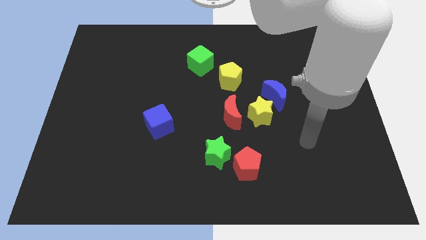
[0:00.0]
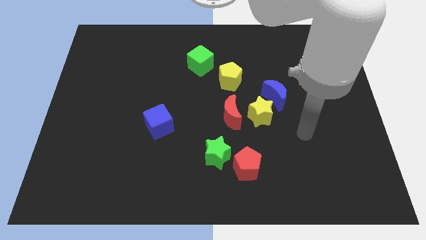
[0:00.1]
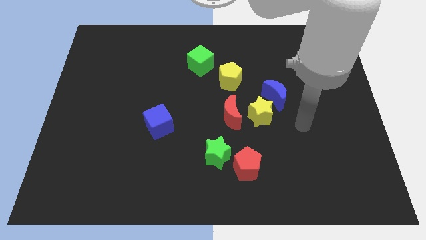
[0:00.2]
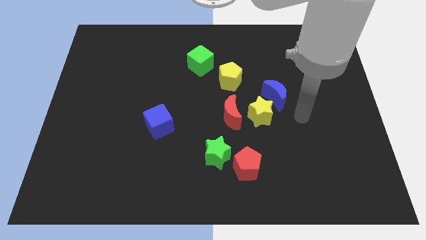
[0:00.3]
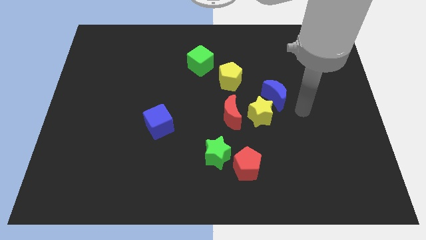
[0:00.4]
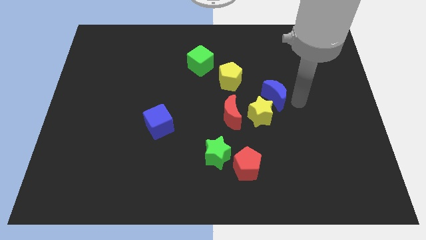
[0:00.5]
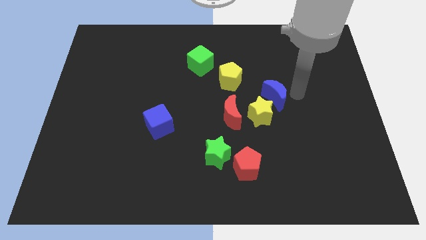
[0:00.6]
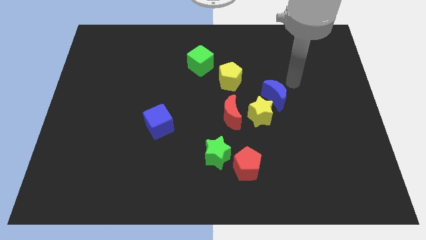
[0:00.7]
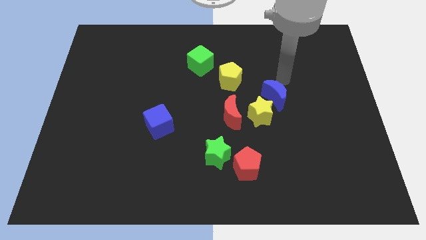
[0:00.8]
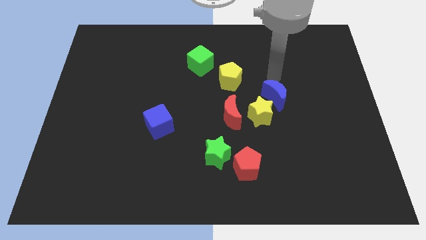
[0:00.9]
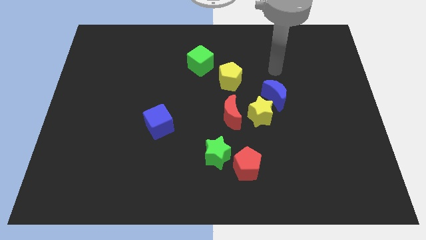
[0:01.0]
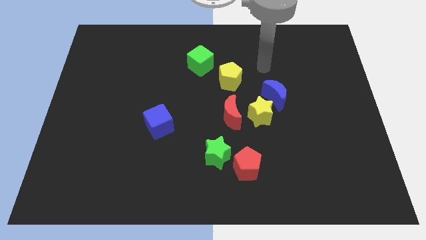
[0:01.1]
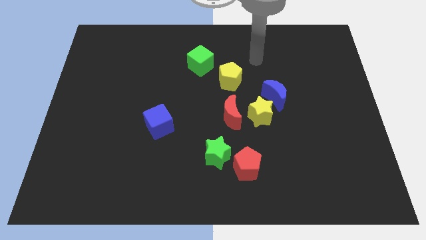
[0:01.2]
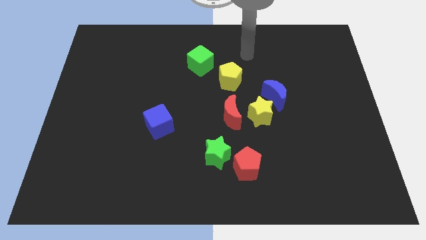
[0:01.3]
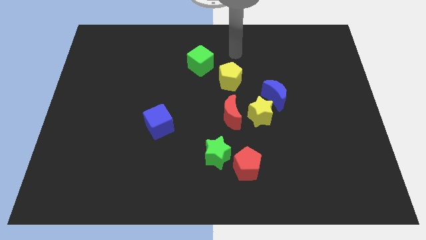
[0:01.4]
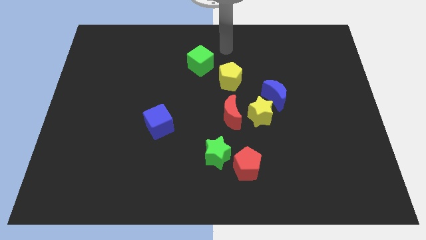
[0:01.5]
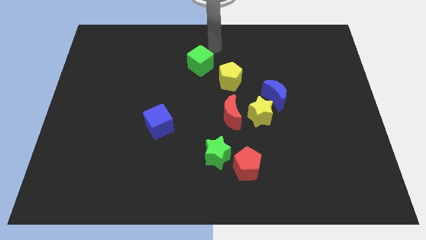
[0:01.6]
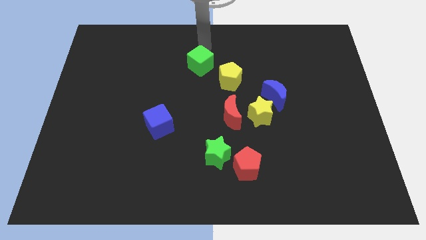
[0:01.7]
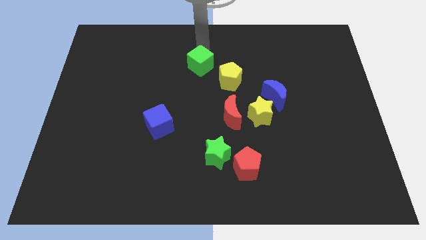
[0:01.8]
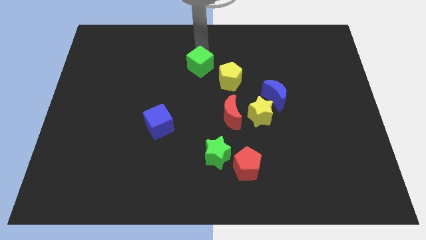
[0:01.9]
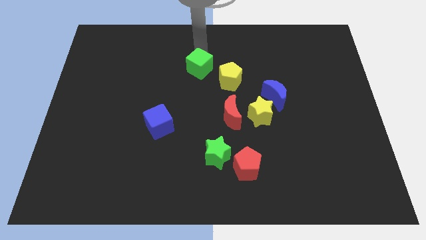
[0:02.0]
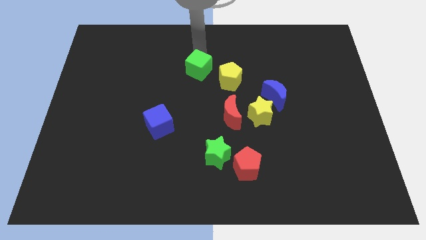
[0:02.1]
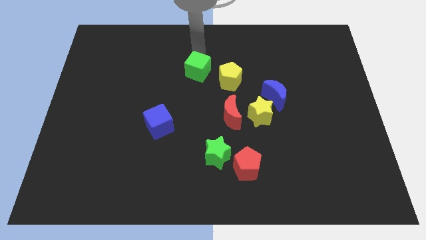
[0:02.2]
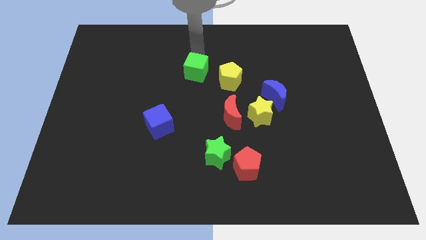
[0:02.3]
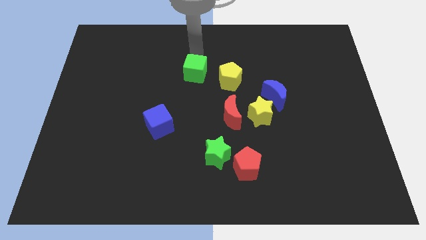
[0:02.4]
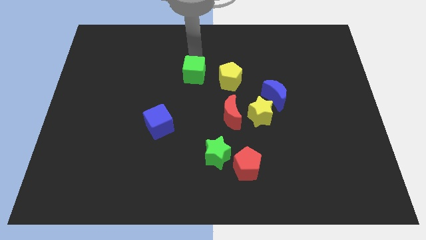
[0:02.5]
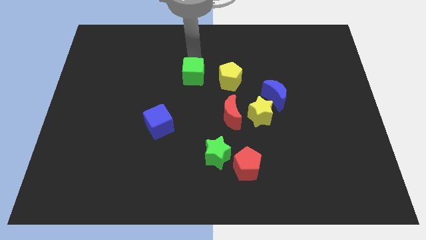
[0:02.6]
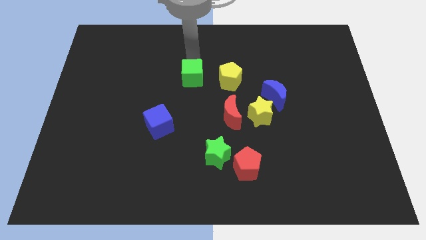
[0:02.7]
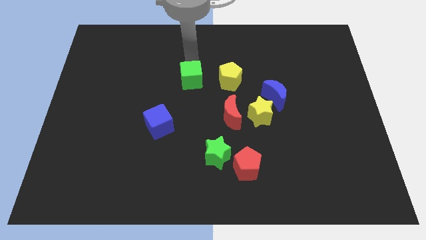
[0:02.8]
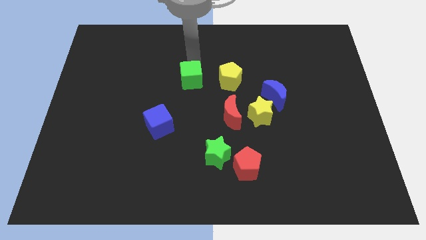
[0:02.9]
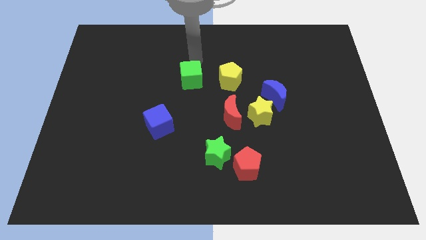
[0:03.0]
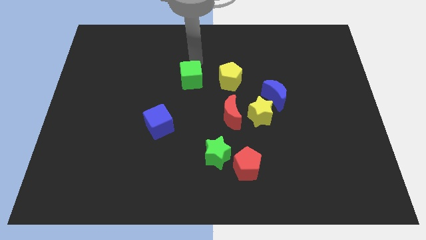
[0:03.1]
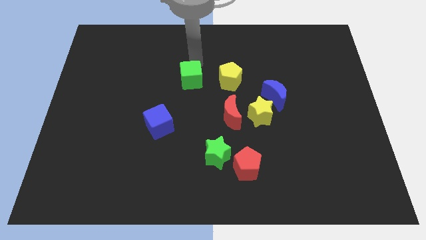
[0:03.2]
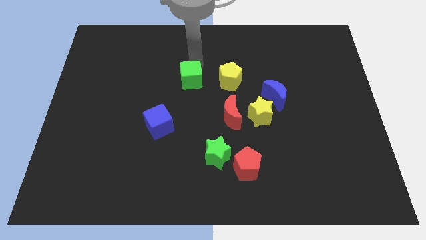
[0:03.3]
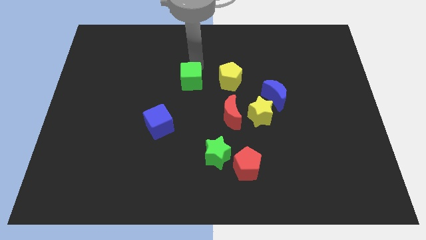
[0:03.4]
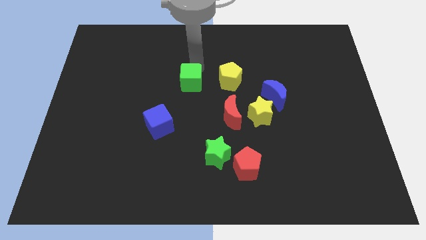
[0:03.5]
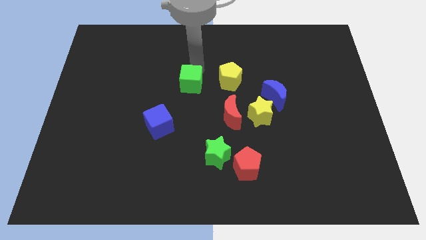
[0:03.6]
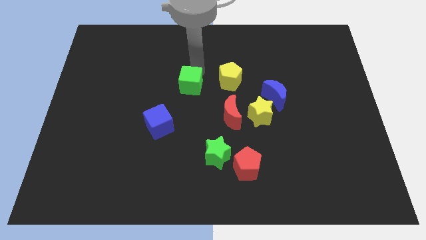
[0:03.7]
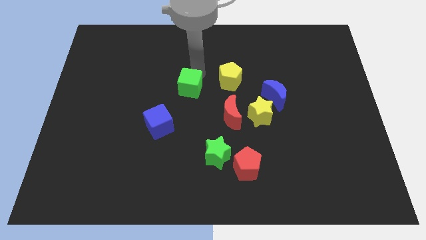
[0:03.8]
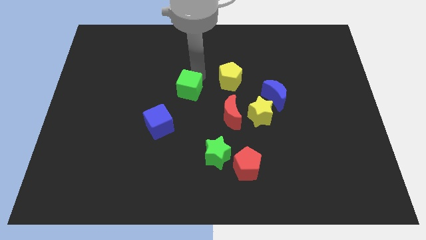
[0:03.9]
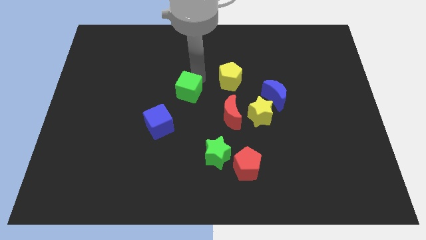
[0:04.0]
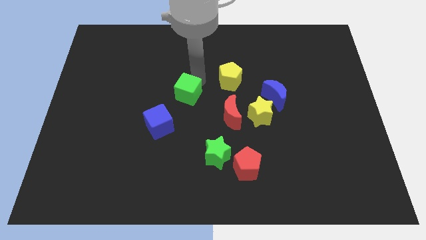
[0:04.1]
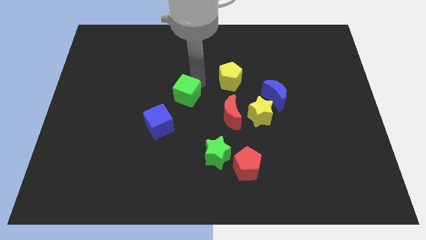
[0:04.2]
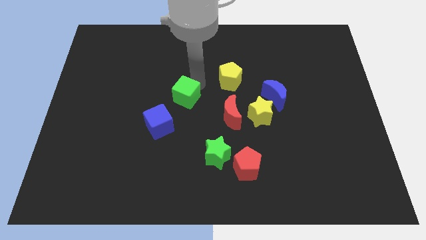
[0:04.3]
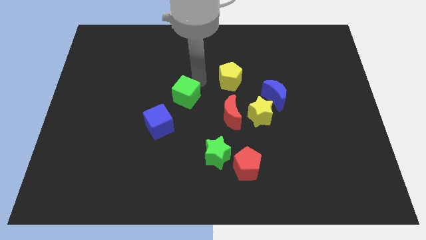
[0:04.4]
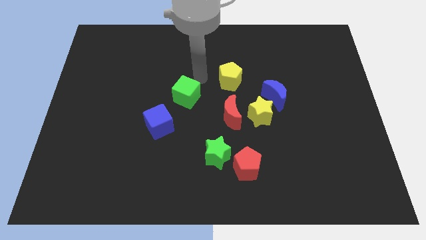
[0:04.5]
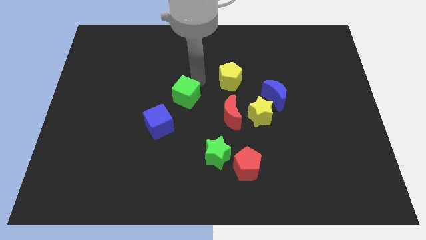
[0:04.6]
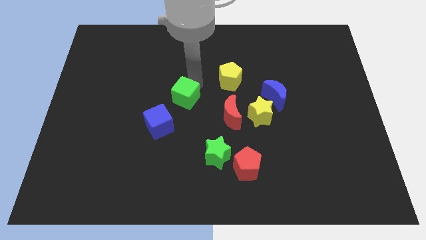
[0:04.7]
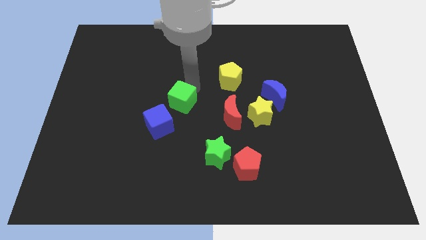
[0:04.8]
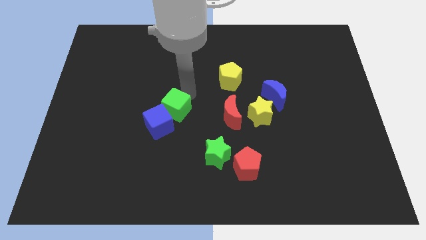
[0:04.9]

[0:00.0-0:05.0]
move the green cube close to the blue cube

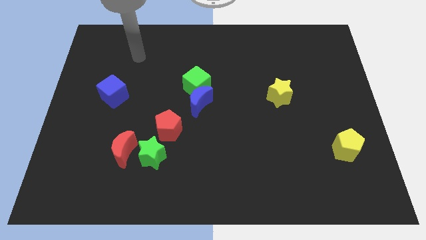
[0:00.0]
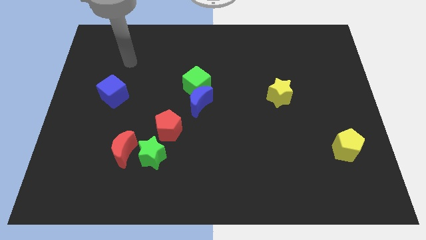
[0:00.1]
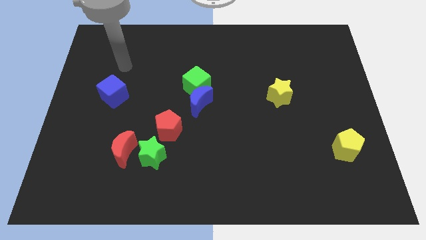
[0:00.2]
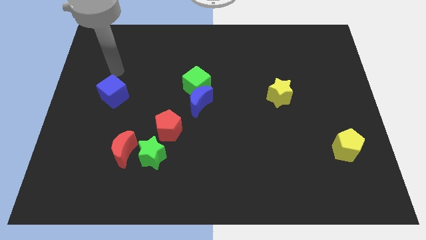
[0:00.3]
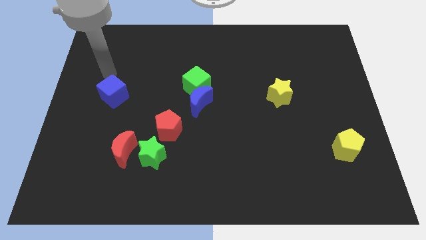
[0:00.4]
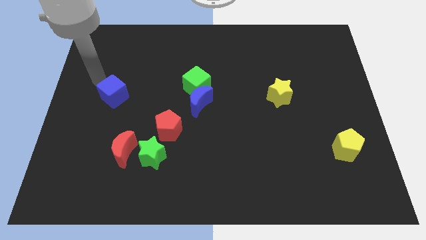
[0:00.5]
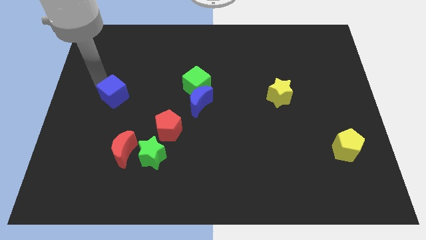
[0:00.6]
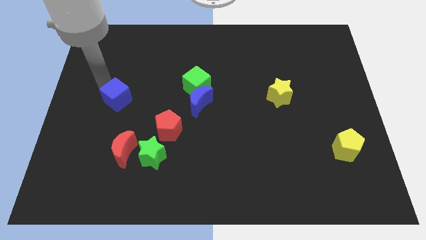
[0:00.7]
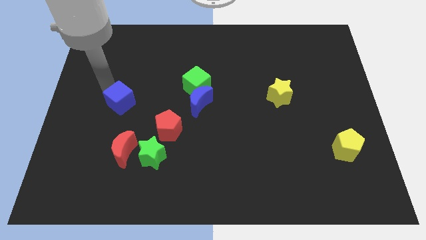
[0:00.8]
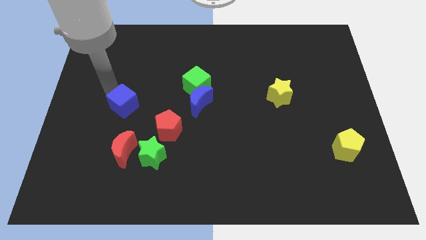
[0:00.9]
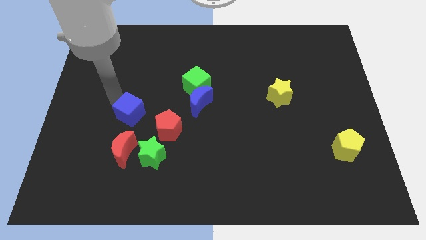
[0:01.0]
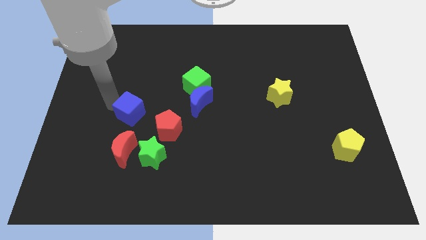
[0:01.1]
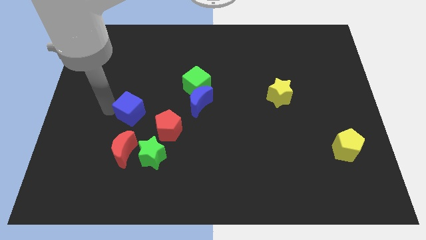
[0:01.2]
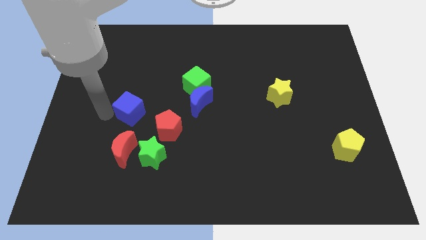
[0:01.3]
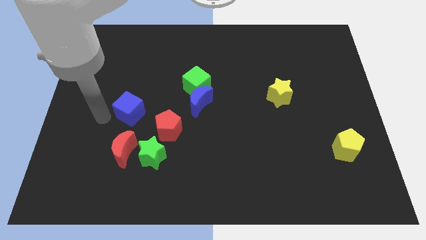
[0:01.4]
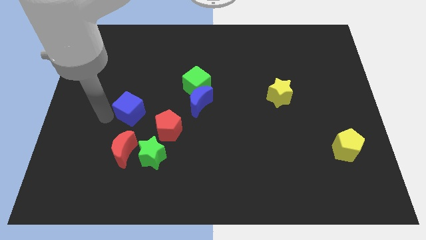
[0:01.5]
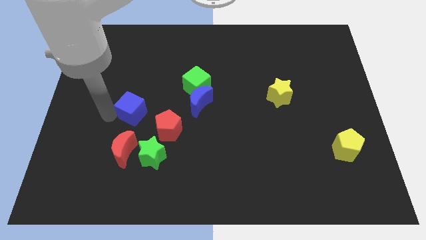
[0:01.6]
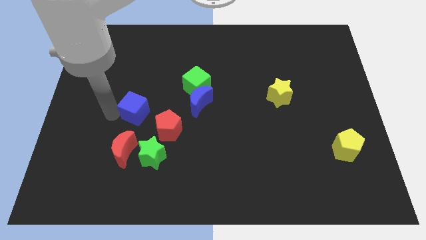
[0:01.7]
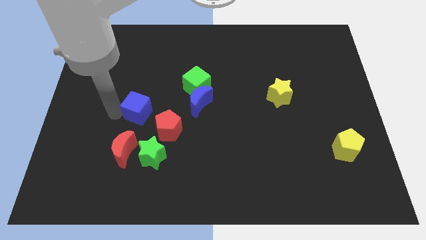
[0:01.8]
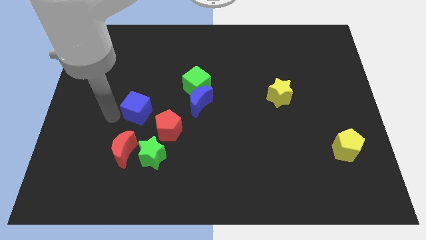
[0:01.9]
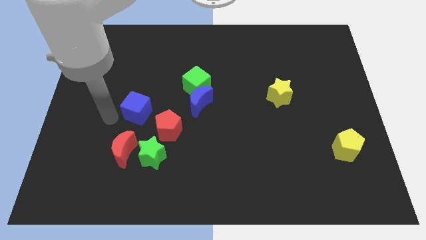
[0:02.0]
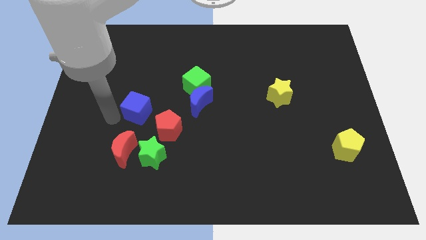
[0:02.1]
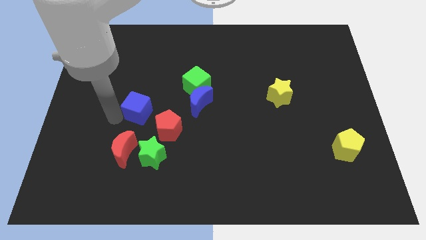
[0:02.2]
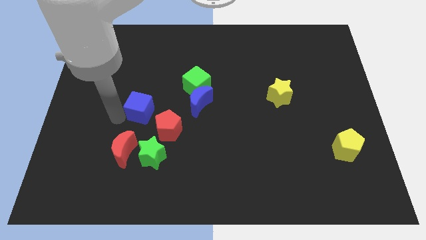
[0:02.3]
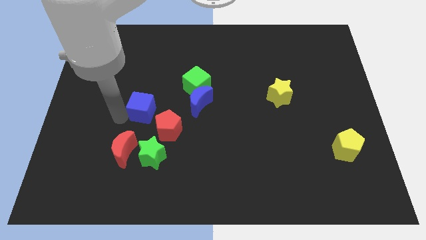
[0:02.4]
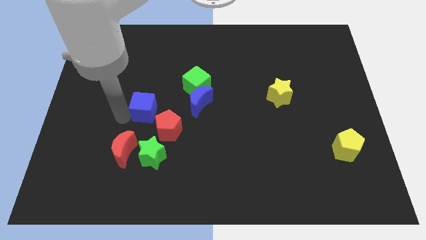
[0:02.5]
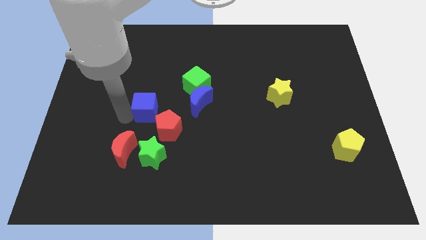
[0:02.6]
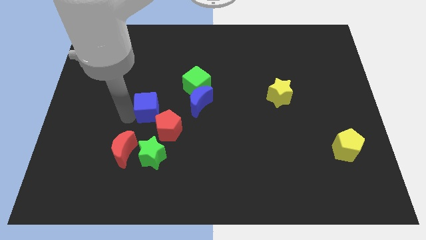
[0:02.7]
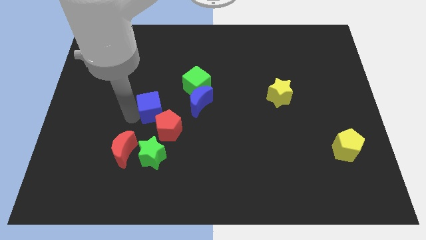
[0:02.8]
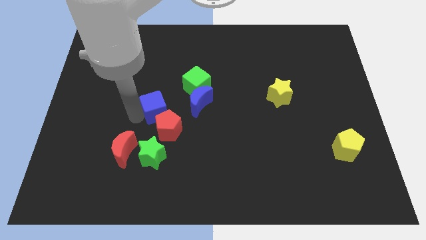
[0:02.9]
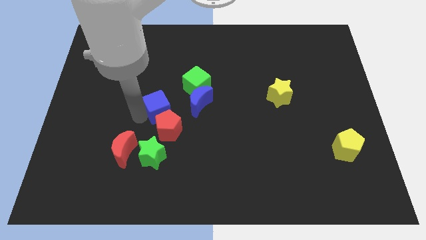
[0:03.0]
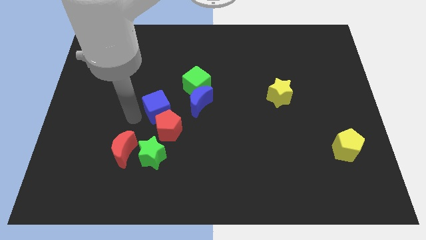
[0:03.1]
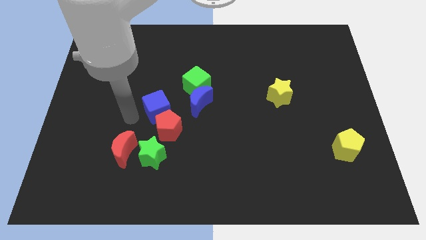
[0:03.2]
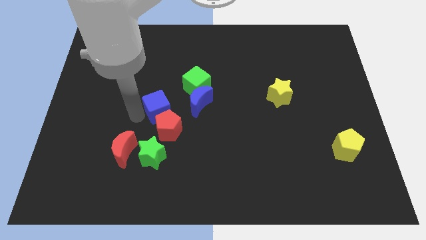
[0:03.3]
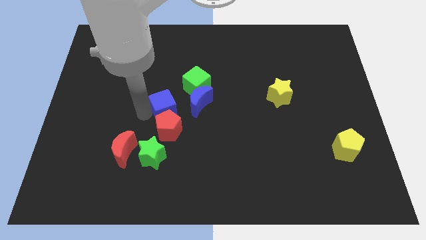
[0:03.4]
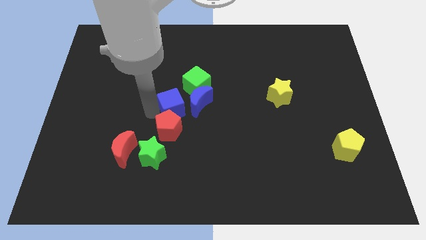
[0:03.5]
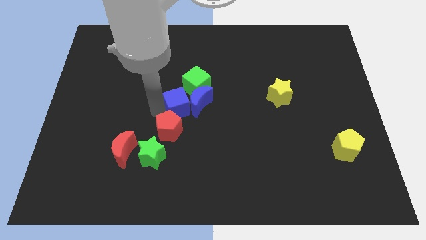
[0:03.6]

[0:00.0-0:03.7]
move the blue cube to the blue moon
